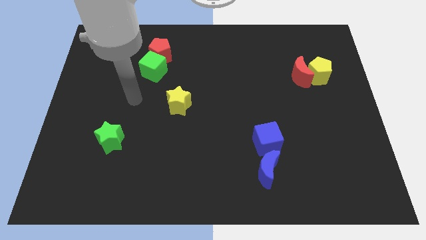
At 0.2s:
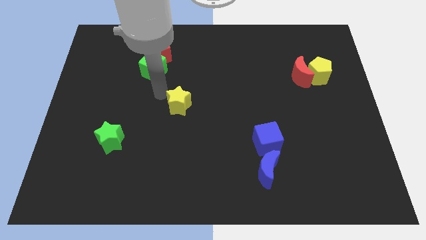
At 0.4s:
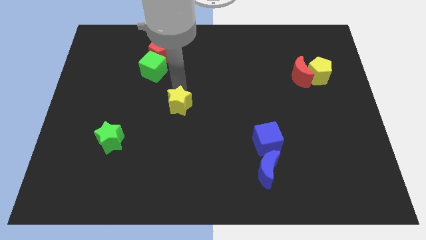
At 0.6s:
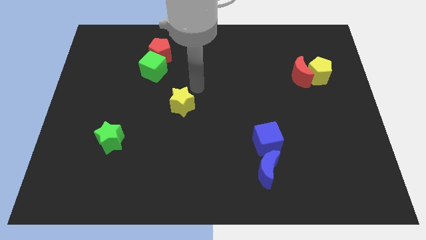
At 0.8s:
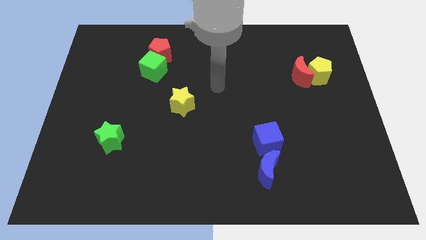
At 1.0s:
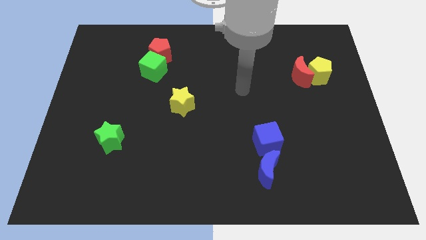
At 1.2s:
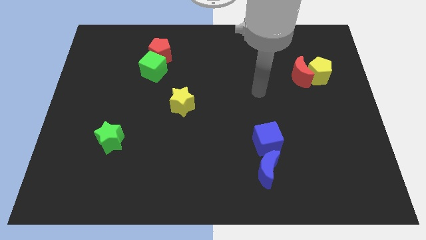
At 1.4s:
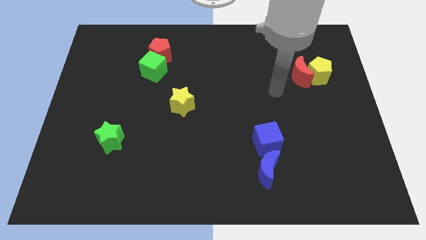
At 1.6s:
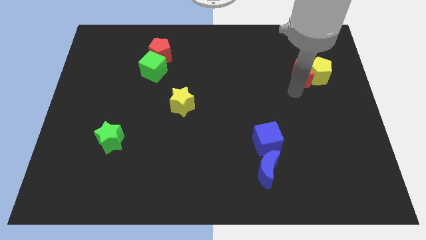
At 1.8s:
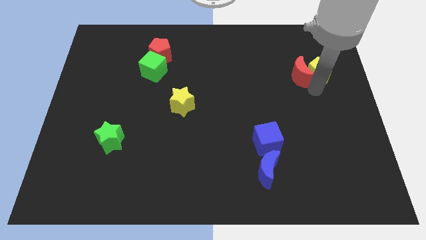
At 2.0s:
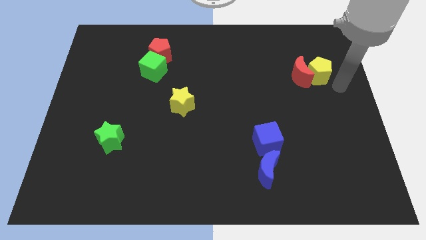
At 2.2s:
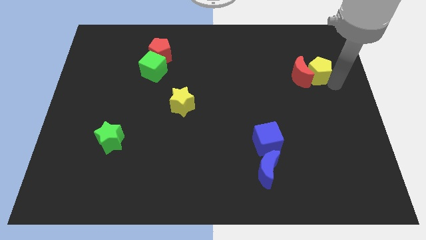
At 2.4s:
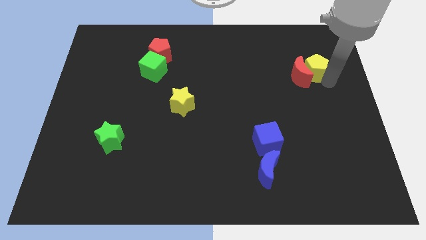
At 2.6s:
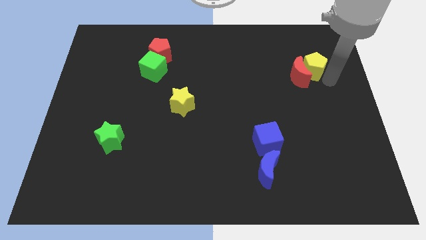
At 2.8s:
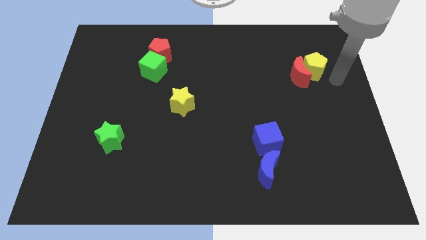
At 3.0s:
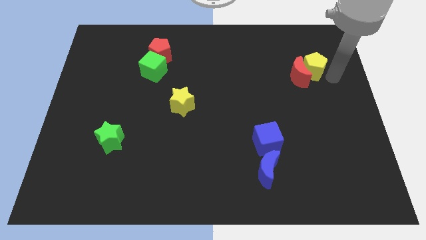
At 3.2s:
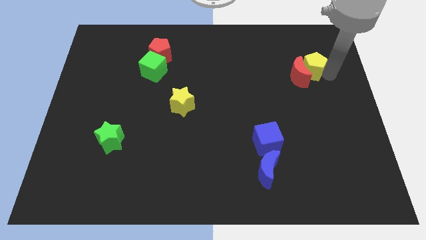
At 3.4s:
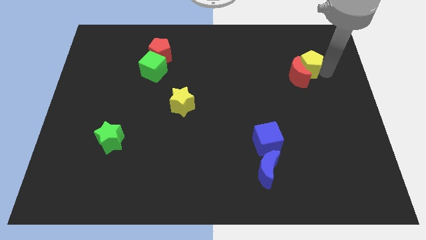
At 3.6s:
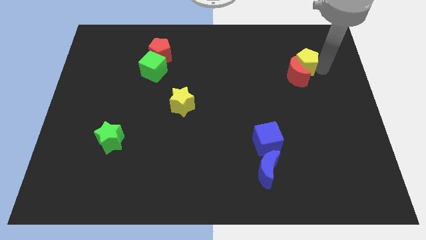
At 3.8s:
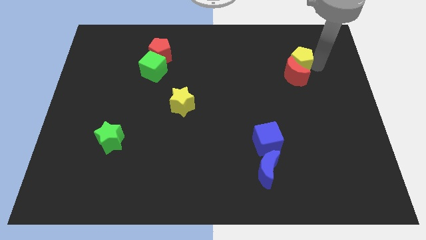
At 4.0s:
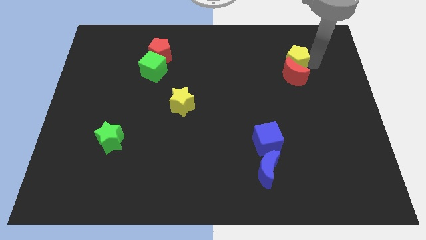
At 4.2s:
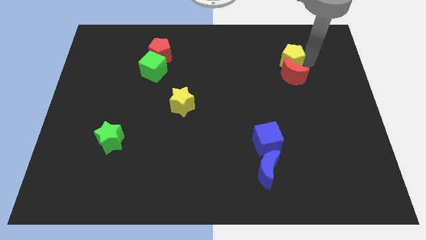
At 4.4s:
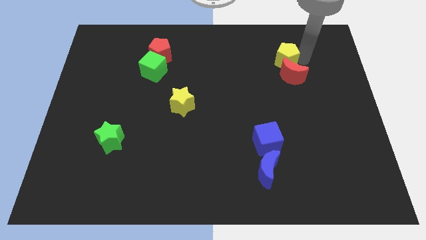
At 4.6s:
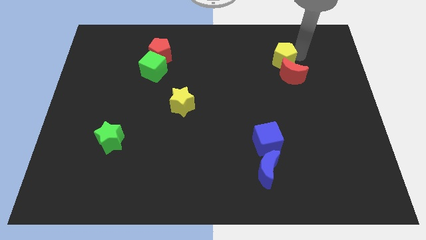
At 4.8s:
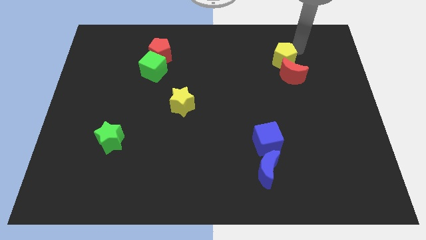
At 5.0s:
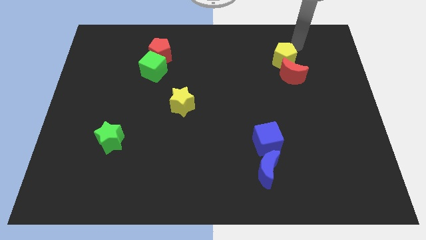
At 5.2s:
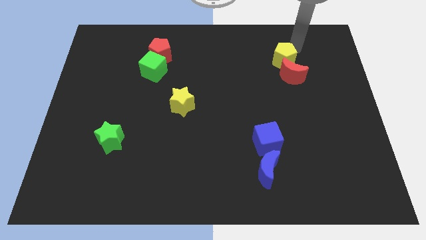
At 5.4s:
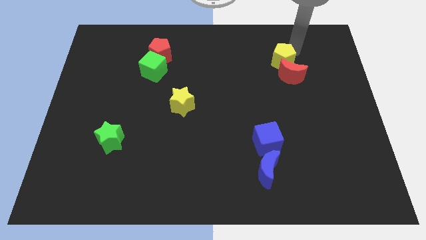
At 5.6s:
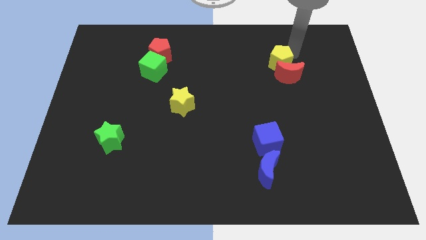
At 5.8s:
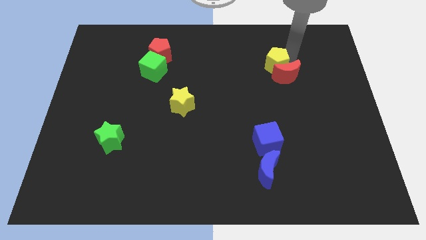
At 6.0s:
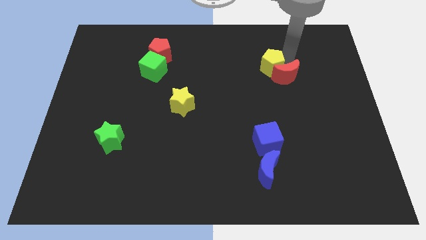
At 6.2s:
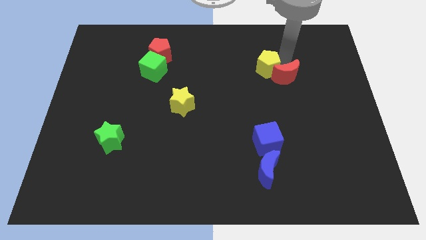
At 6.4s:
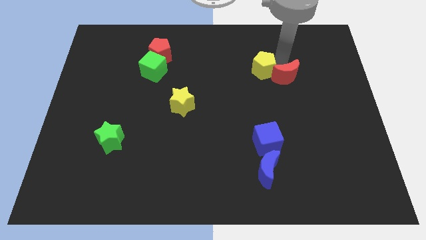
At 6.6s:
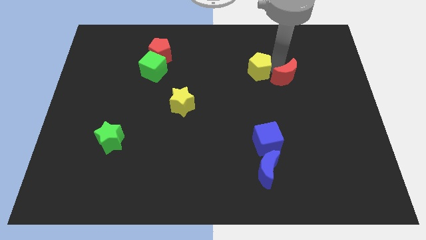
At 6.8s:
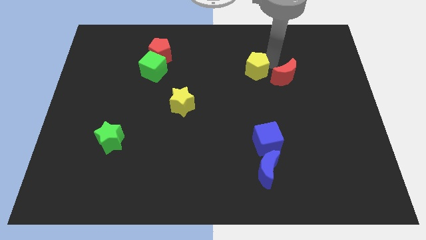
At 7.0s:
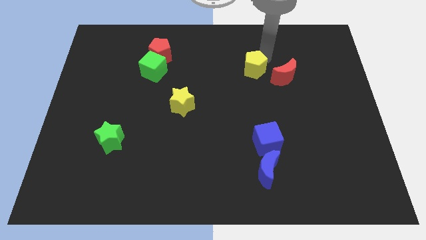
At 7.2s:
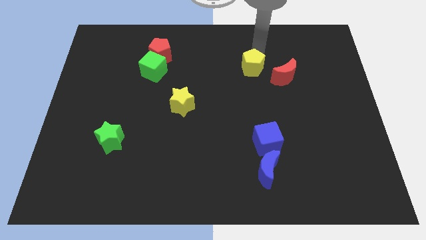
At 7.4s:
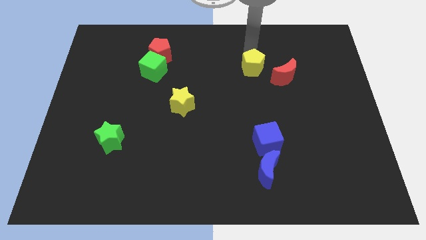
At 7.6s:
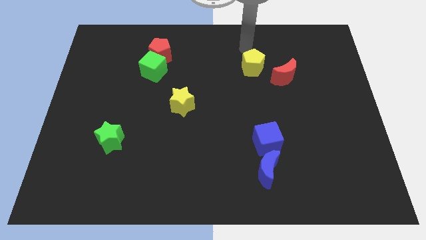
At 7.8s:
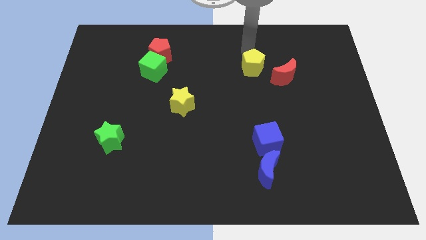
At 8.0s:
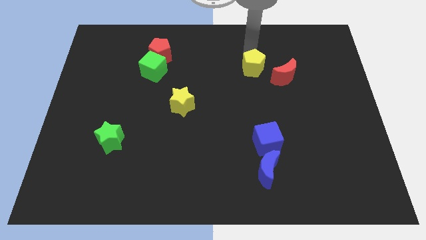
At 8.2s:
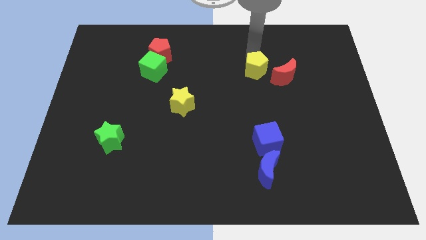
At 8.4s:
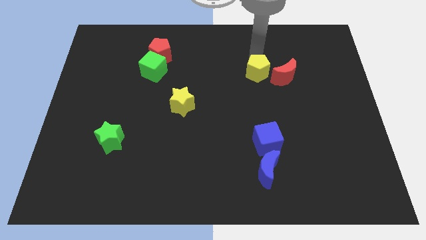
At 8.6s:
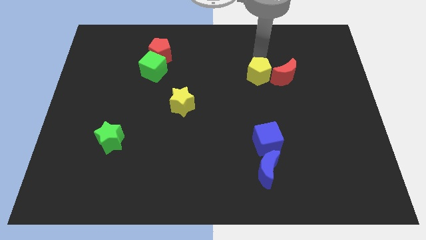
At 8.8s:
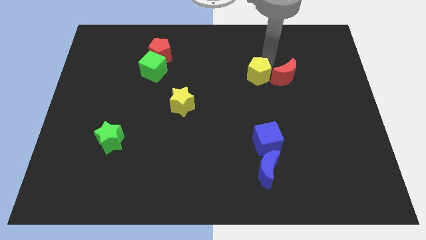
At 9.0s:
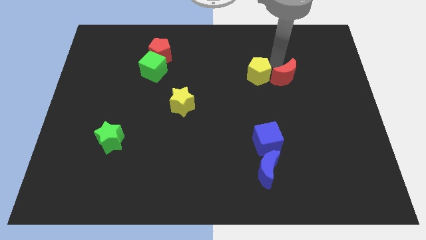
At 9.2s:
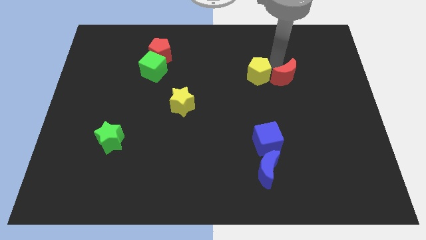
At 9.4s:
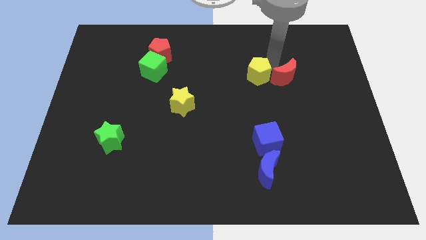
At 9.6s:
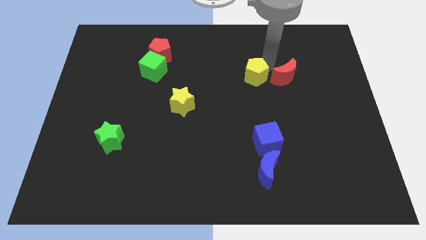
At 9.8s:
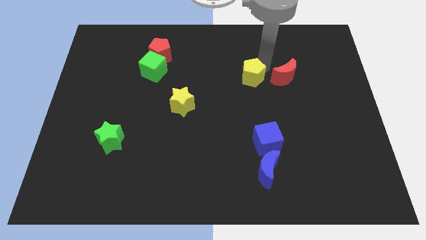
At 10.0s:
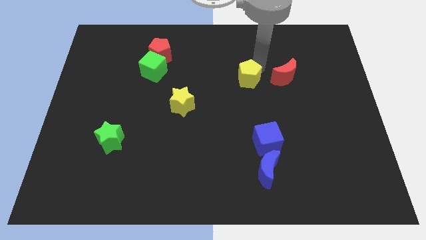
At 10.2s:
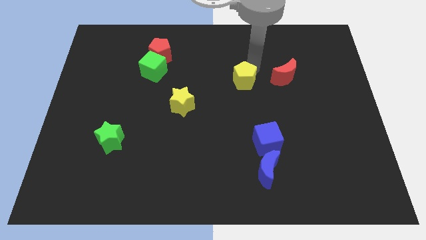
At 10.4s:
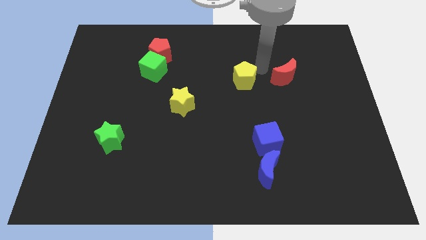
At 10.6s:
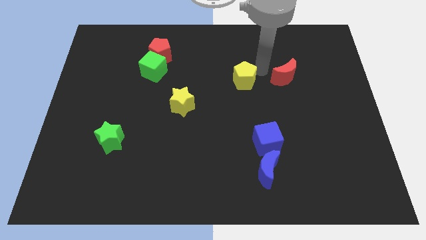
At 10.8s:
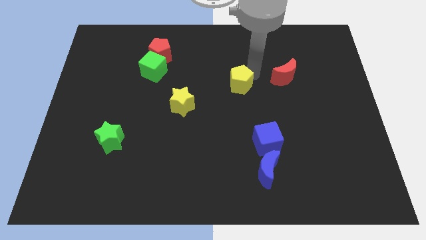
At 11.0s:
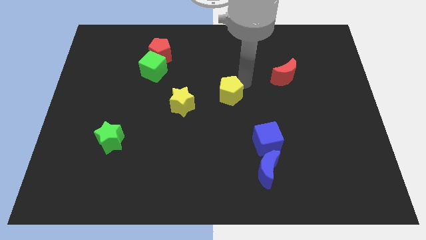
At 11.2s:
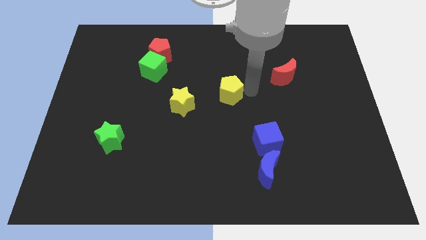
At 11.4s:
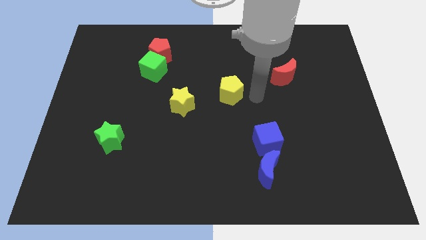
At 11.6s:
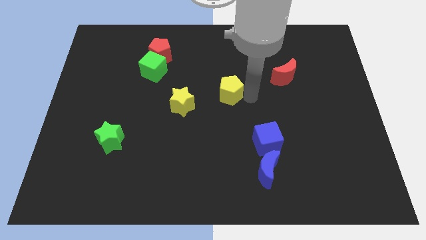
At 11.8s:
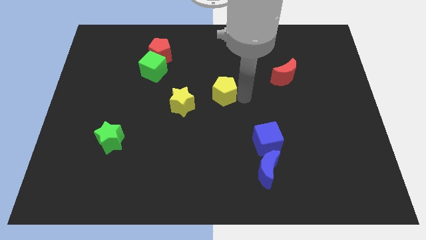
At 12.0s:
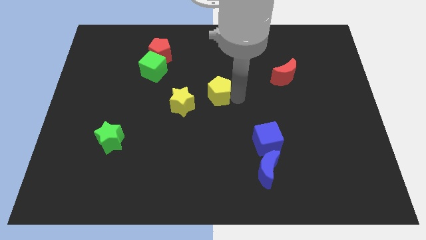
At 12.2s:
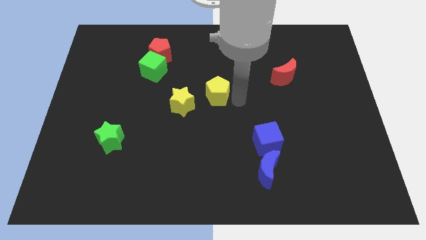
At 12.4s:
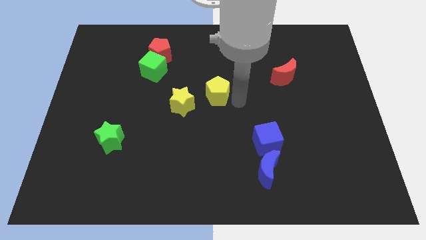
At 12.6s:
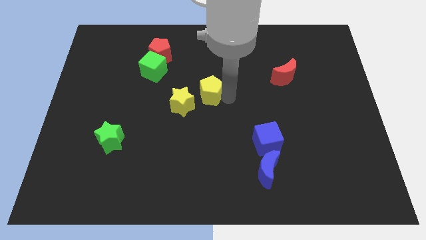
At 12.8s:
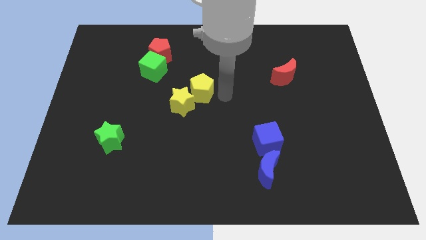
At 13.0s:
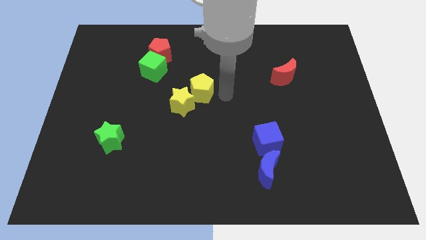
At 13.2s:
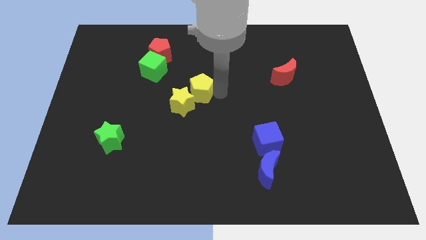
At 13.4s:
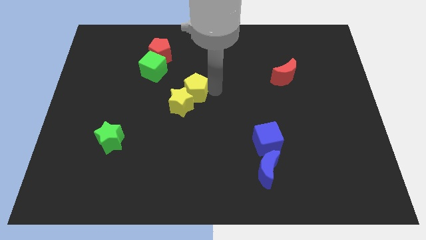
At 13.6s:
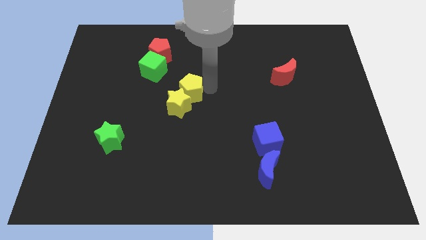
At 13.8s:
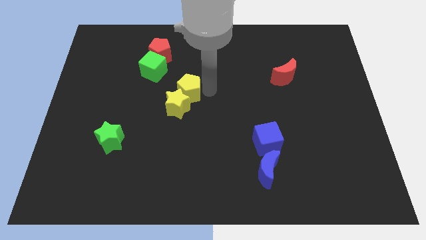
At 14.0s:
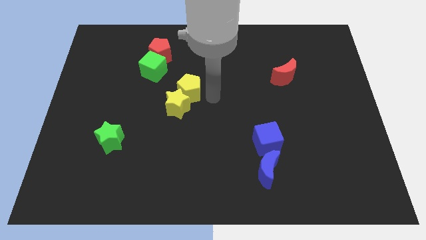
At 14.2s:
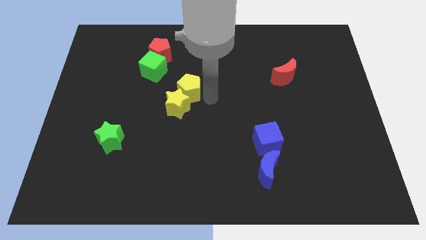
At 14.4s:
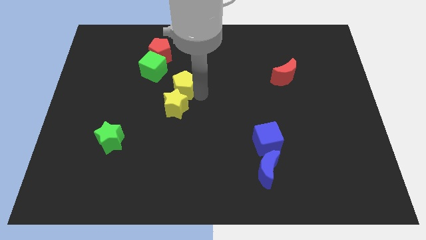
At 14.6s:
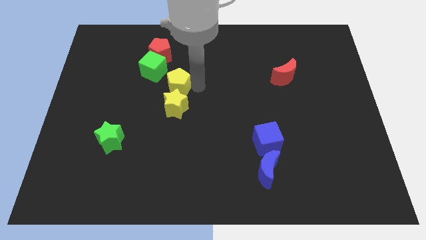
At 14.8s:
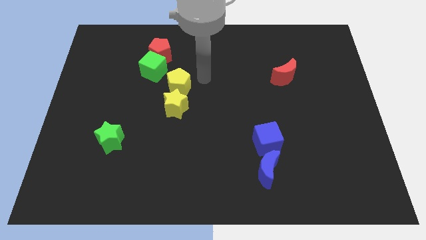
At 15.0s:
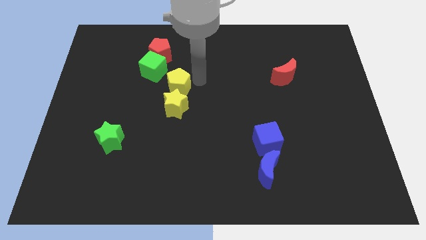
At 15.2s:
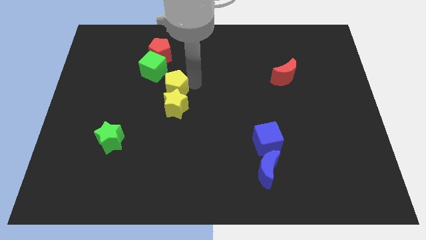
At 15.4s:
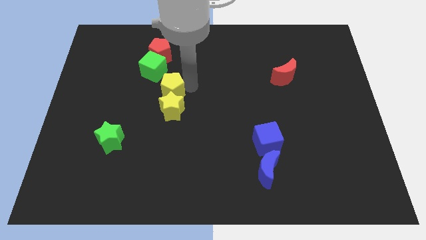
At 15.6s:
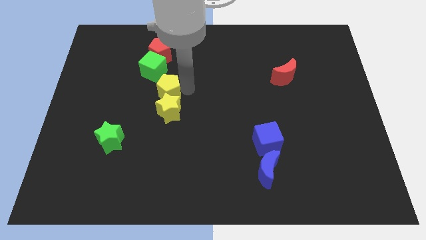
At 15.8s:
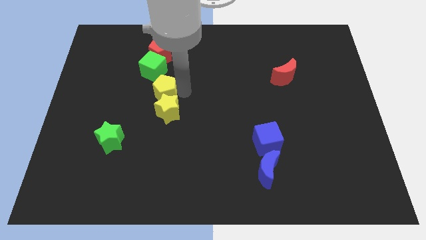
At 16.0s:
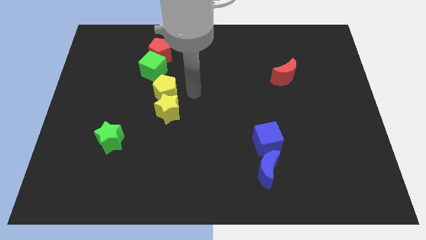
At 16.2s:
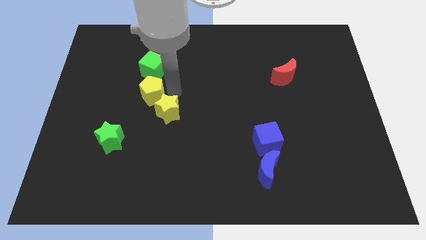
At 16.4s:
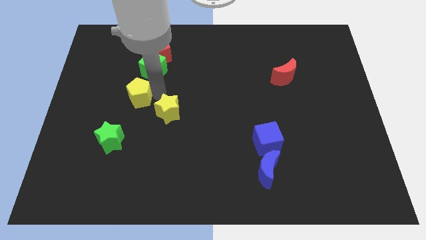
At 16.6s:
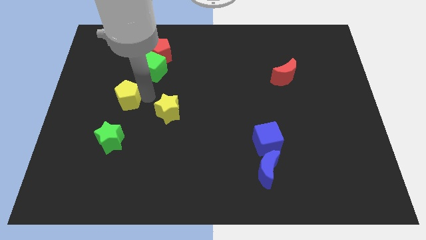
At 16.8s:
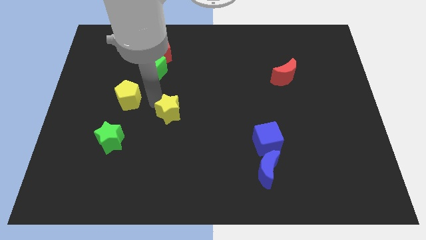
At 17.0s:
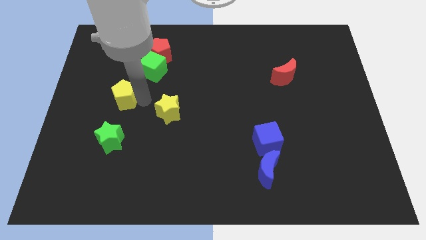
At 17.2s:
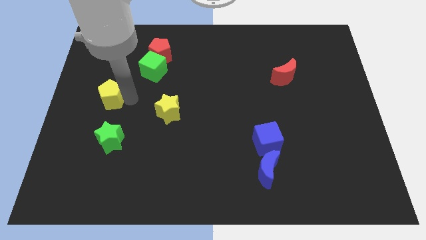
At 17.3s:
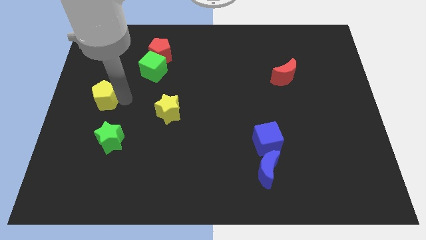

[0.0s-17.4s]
put the yellow pentagon to the left side of the board
